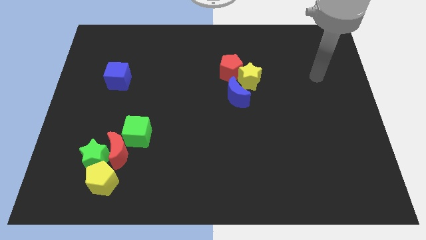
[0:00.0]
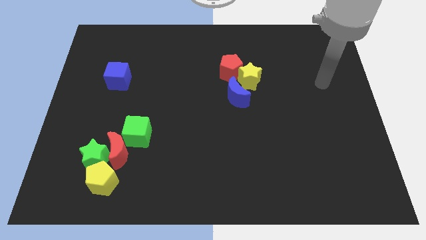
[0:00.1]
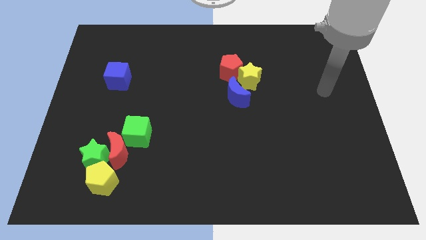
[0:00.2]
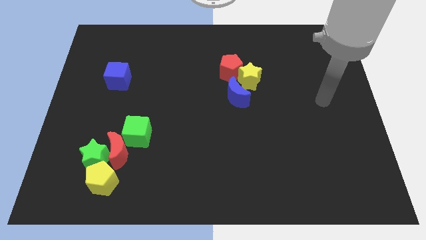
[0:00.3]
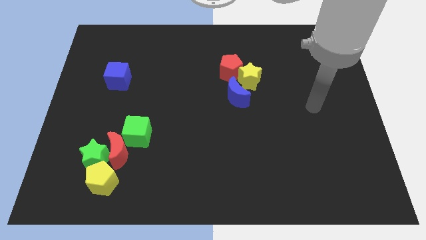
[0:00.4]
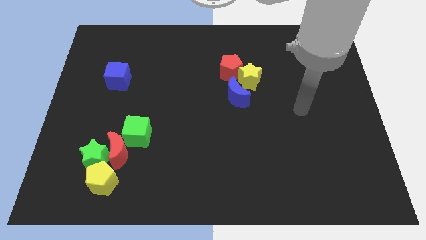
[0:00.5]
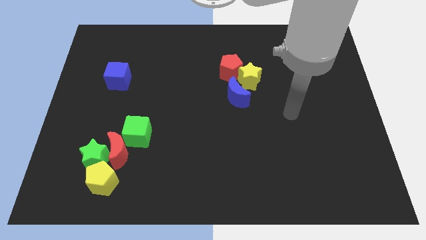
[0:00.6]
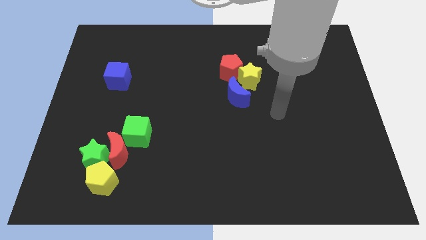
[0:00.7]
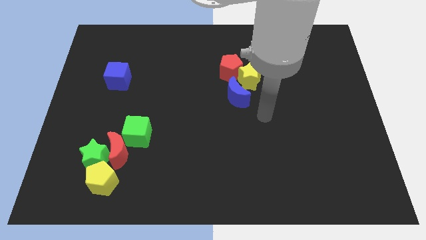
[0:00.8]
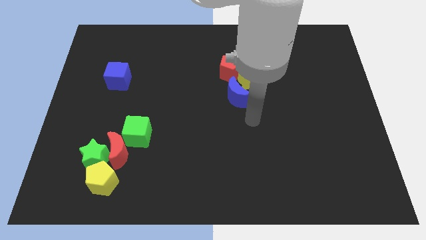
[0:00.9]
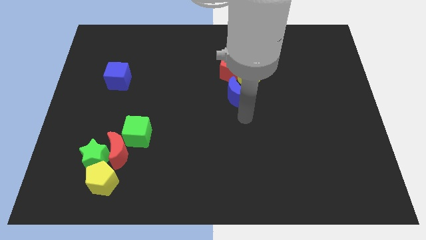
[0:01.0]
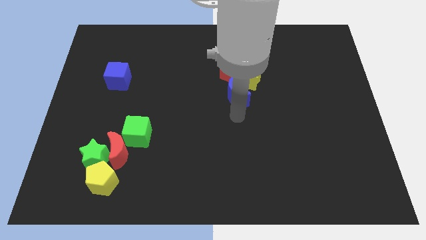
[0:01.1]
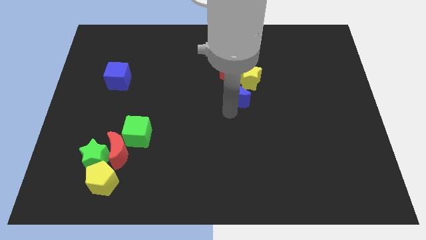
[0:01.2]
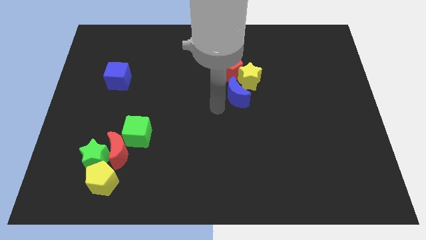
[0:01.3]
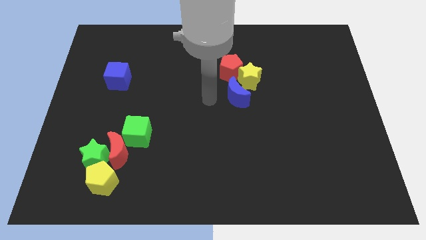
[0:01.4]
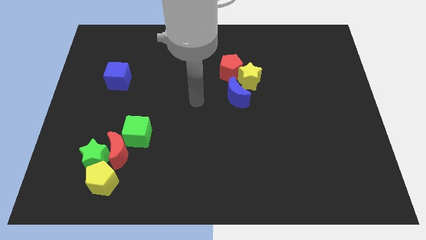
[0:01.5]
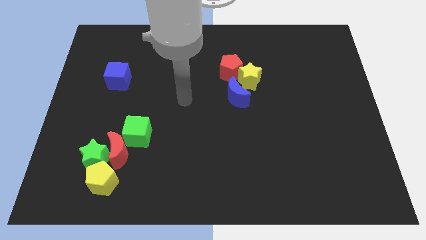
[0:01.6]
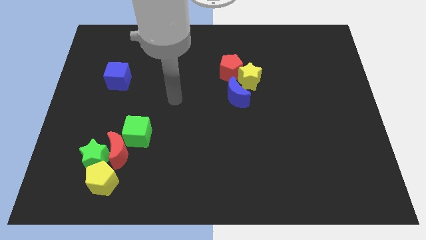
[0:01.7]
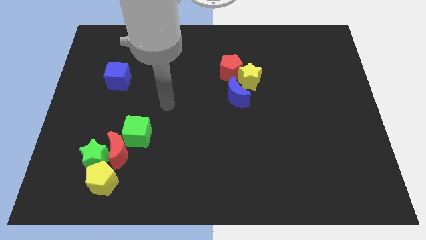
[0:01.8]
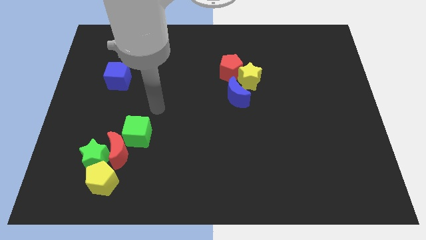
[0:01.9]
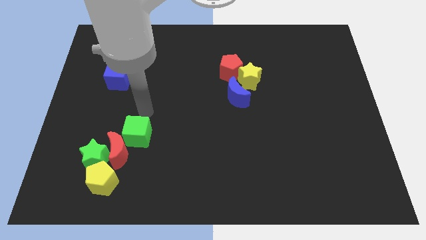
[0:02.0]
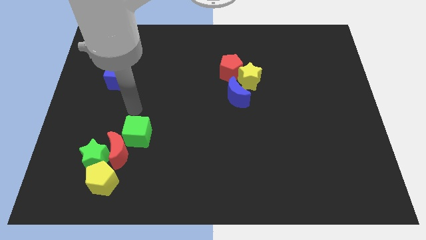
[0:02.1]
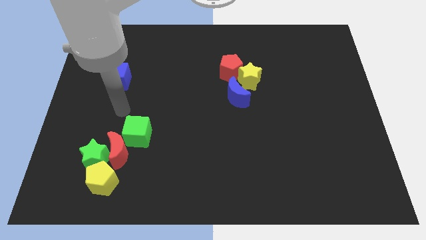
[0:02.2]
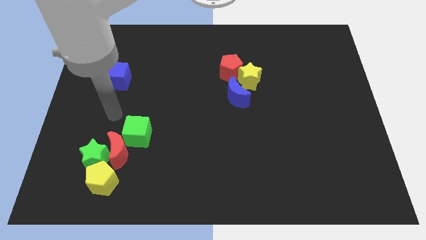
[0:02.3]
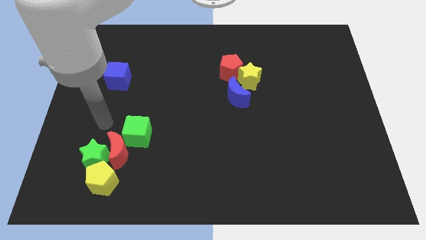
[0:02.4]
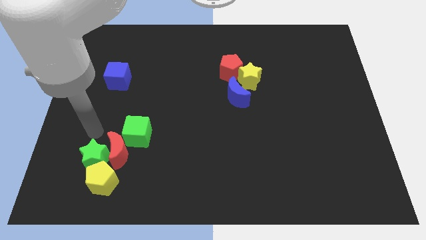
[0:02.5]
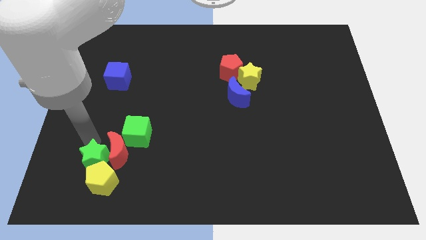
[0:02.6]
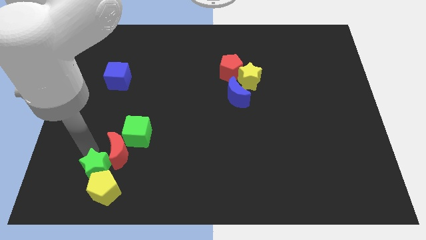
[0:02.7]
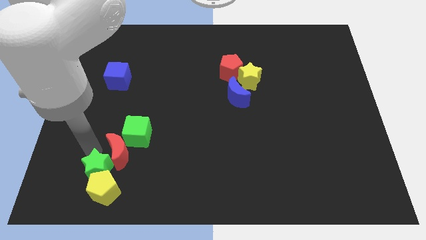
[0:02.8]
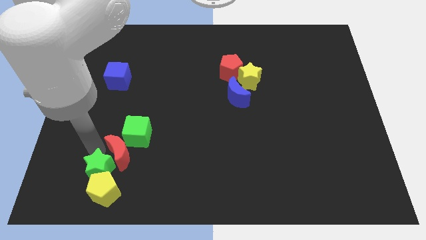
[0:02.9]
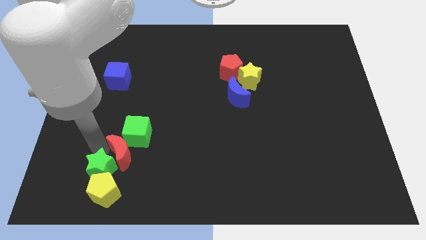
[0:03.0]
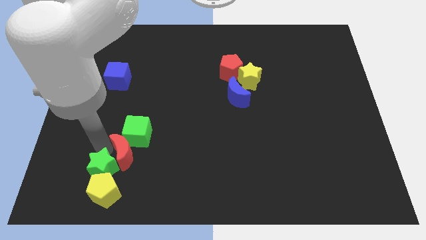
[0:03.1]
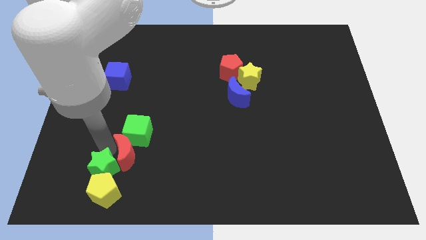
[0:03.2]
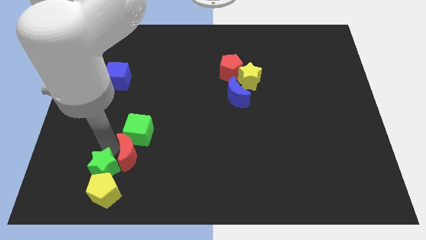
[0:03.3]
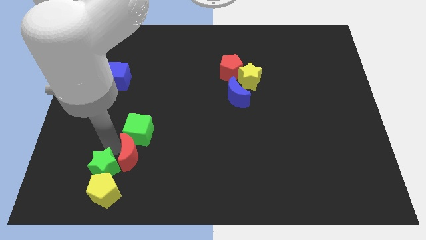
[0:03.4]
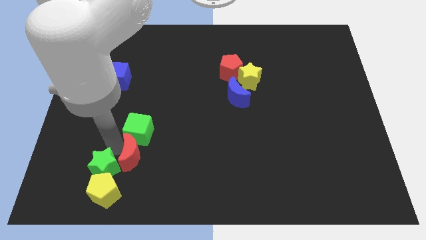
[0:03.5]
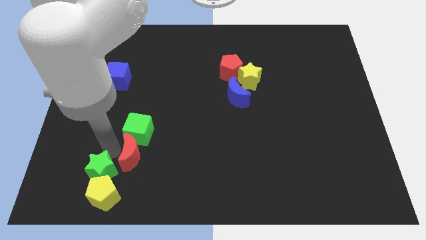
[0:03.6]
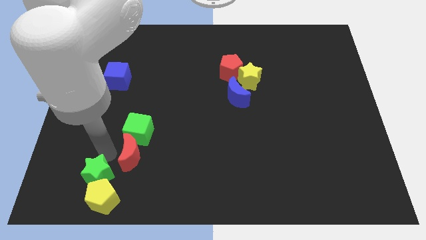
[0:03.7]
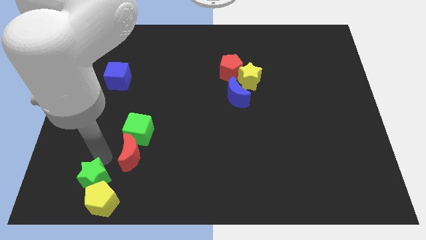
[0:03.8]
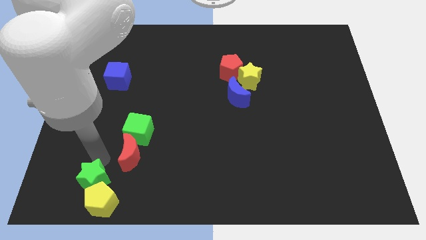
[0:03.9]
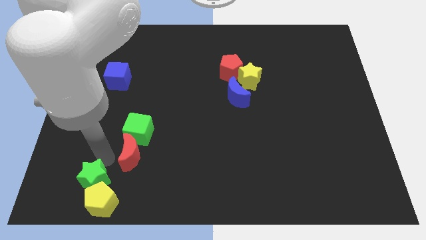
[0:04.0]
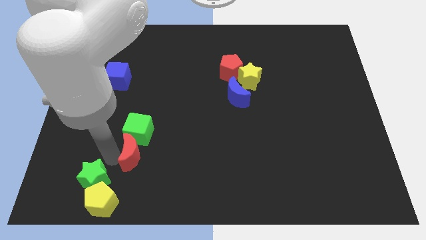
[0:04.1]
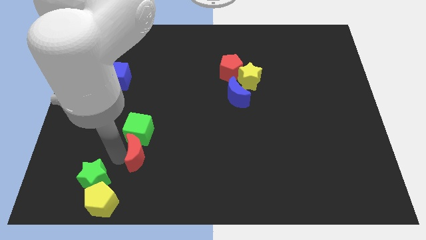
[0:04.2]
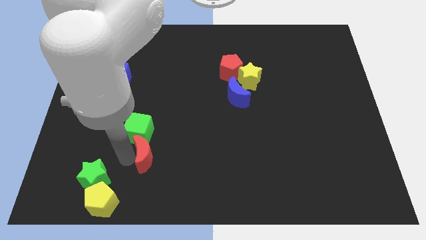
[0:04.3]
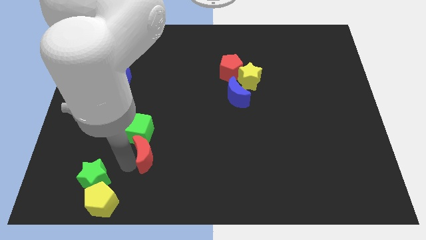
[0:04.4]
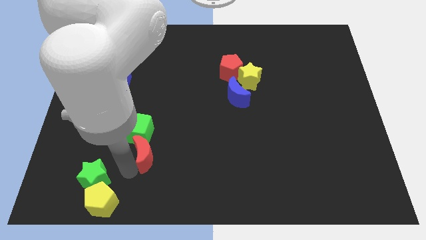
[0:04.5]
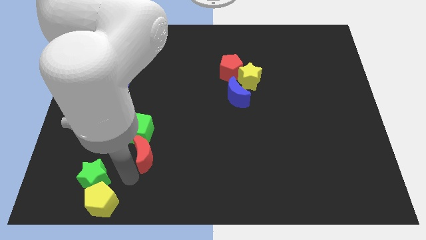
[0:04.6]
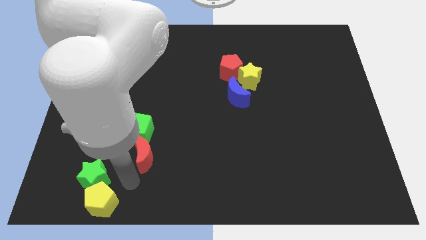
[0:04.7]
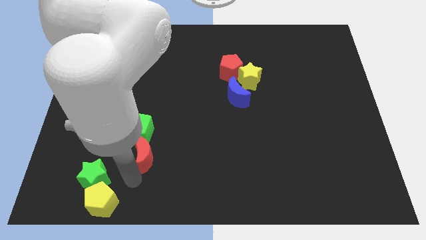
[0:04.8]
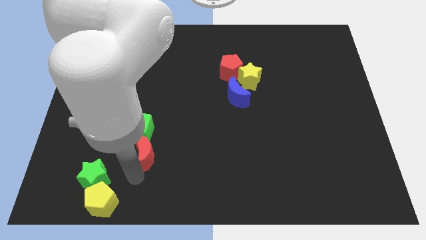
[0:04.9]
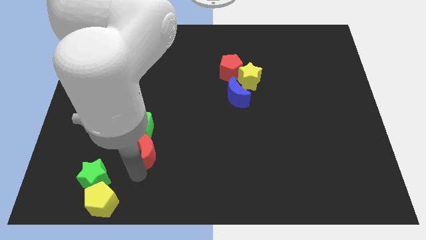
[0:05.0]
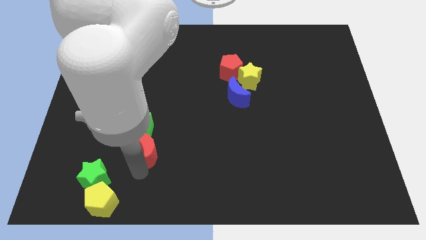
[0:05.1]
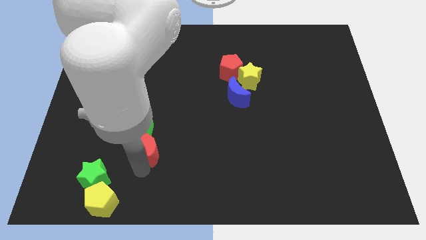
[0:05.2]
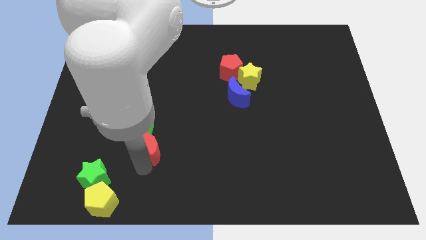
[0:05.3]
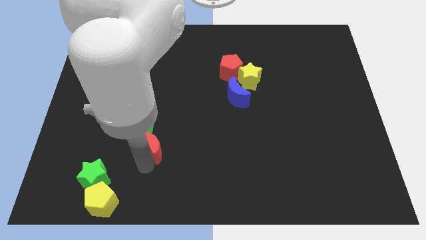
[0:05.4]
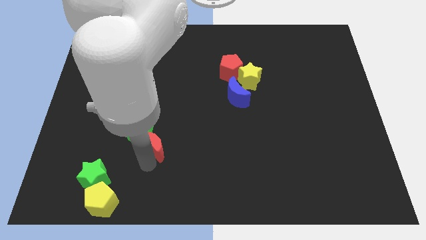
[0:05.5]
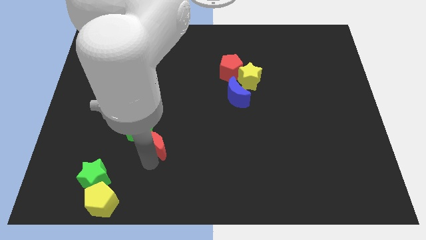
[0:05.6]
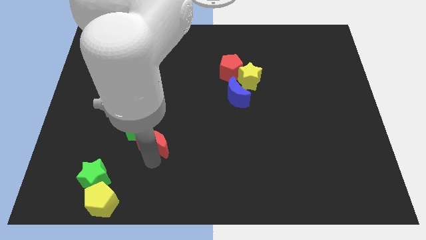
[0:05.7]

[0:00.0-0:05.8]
move the red moon away from the group

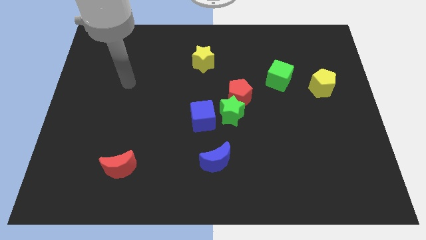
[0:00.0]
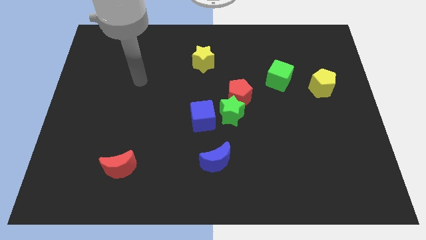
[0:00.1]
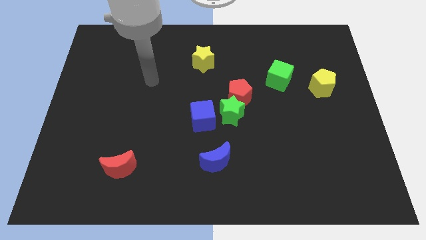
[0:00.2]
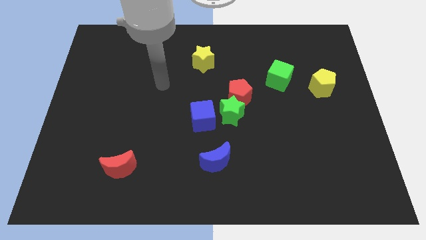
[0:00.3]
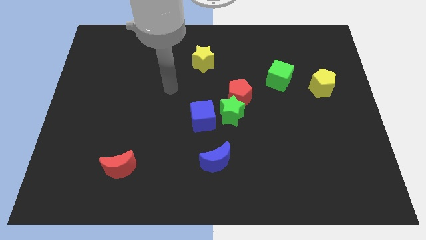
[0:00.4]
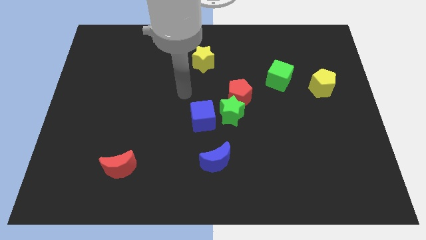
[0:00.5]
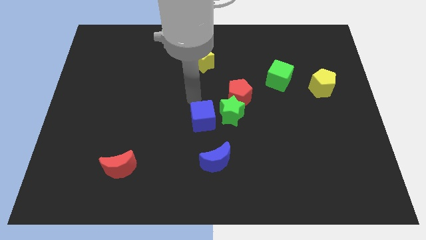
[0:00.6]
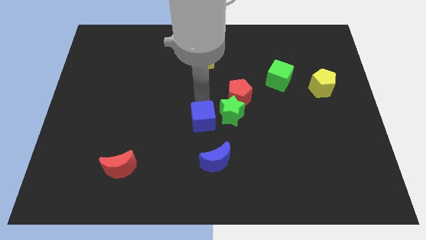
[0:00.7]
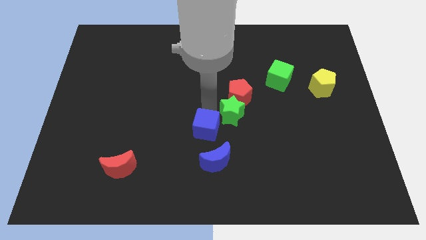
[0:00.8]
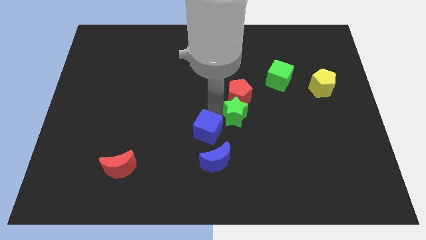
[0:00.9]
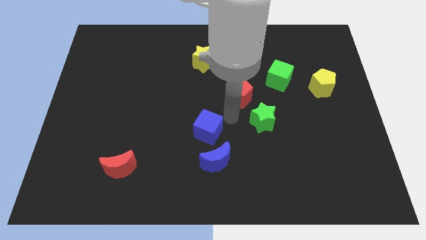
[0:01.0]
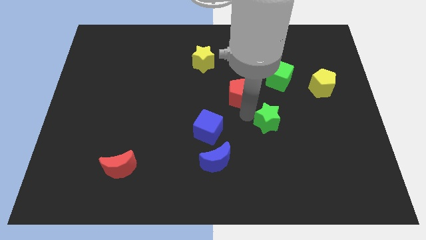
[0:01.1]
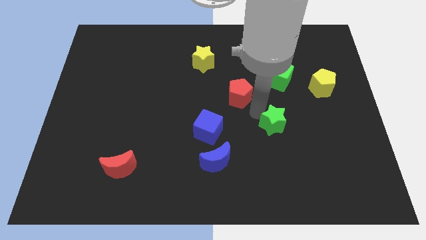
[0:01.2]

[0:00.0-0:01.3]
move the red pentagon away from the green star

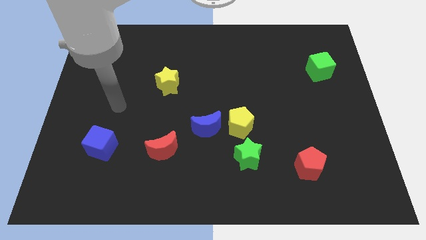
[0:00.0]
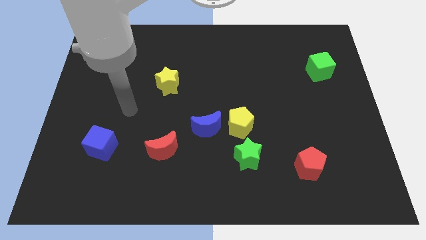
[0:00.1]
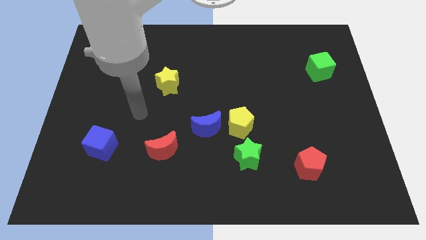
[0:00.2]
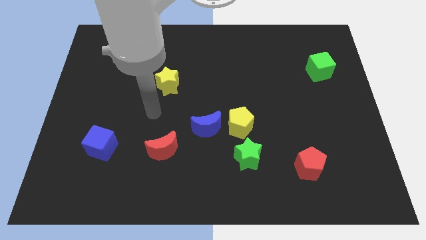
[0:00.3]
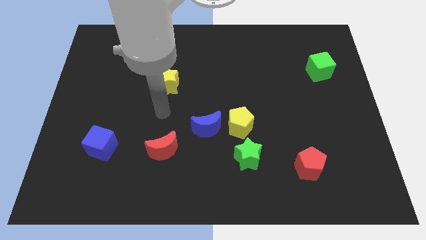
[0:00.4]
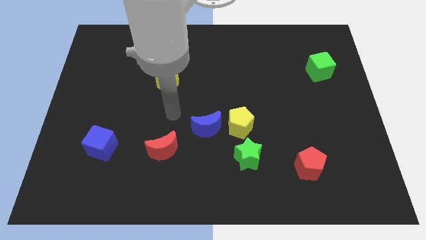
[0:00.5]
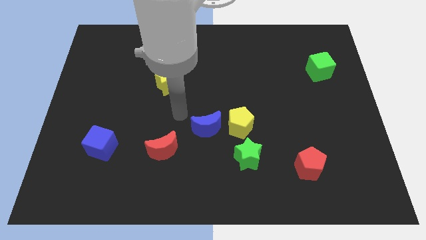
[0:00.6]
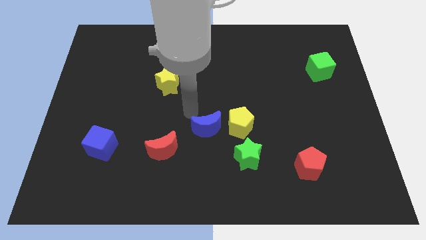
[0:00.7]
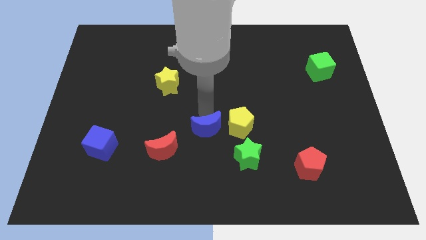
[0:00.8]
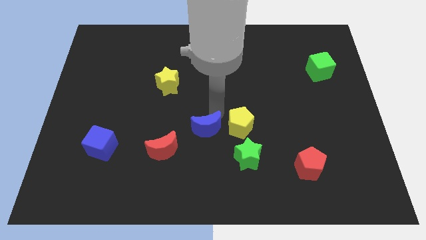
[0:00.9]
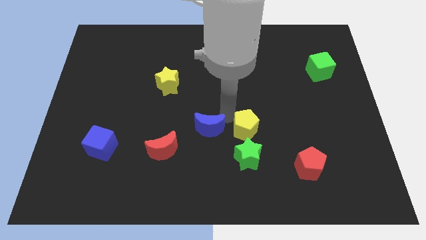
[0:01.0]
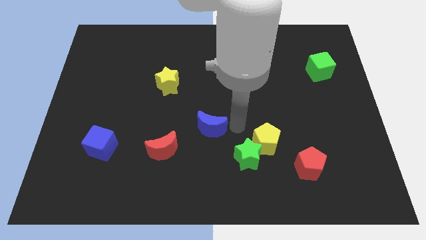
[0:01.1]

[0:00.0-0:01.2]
separate the blue moon from the yellow pentagon

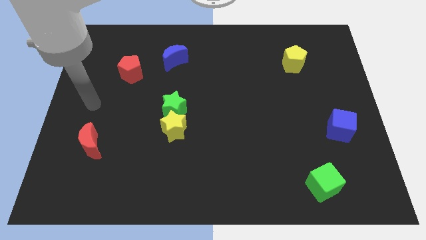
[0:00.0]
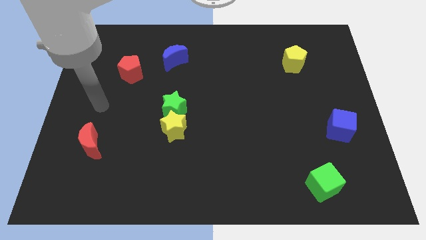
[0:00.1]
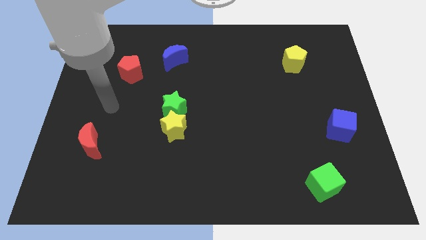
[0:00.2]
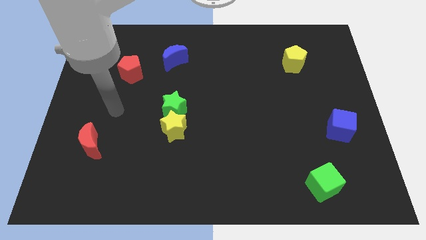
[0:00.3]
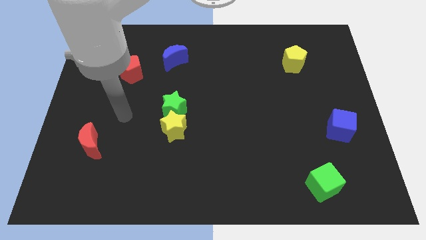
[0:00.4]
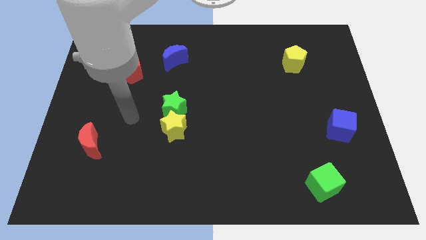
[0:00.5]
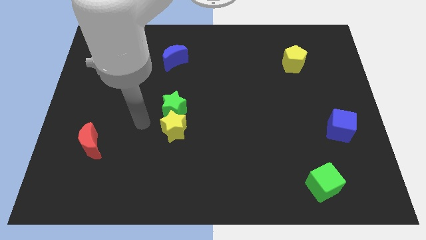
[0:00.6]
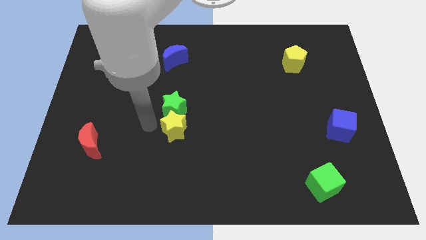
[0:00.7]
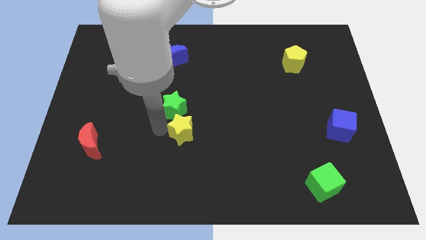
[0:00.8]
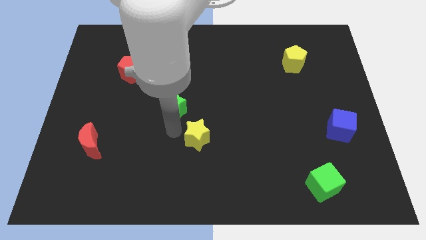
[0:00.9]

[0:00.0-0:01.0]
pull the green star apart from the yellow star
